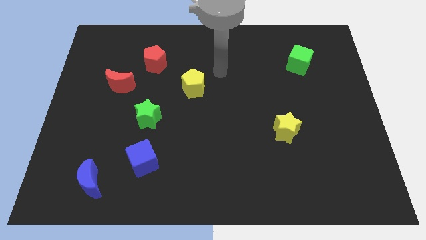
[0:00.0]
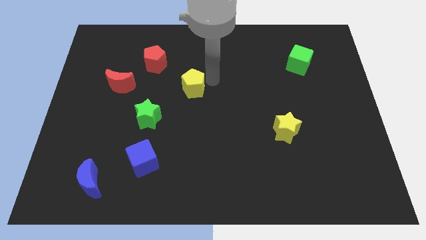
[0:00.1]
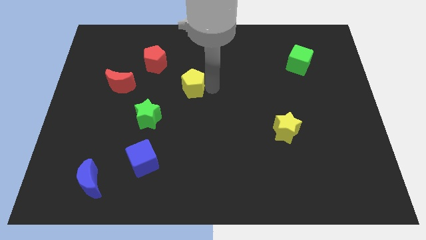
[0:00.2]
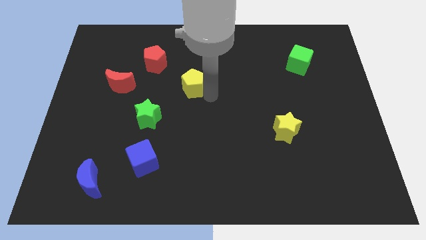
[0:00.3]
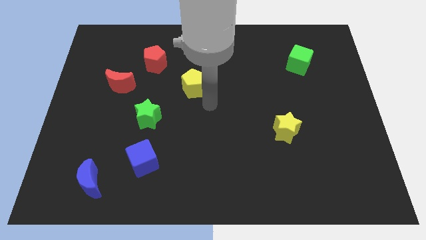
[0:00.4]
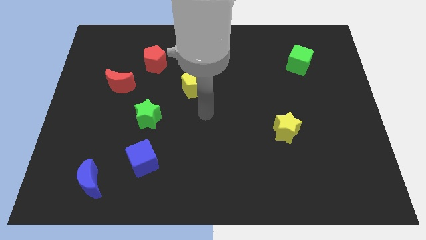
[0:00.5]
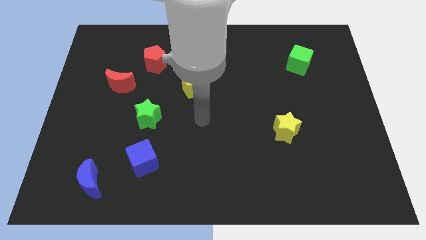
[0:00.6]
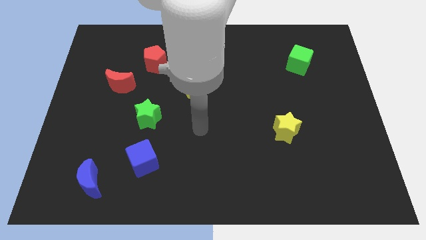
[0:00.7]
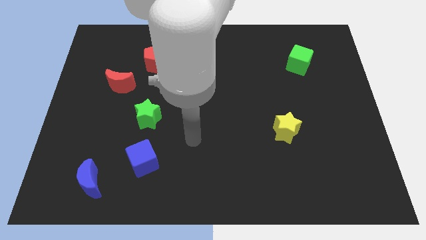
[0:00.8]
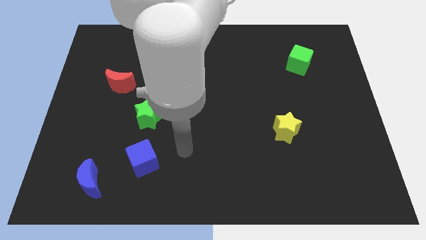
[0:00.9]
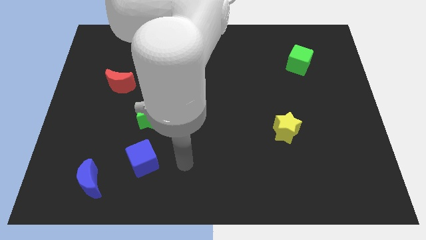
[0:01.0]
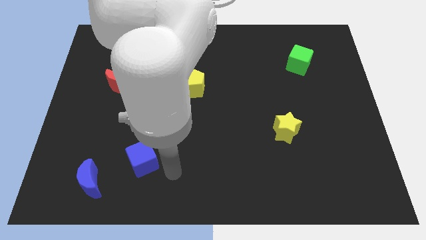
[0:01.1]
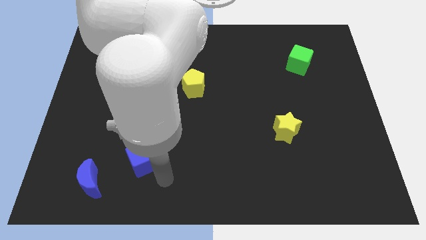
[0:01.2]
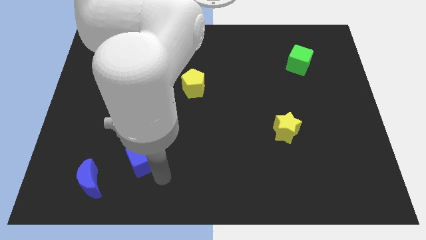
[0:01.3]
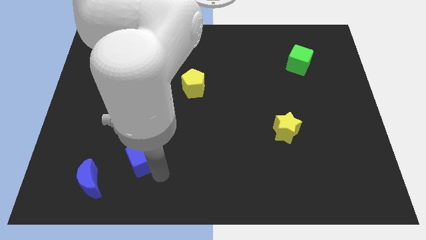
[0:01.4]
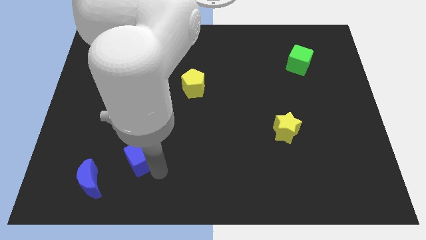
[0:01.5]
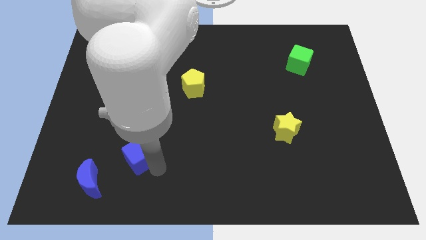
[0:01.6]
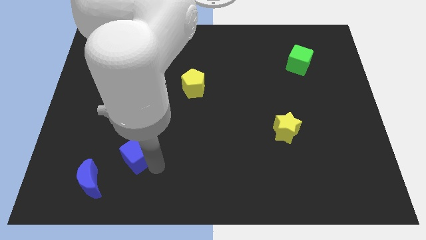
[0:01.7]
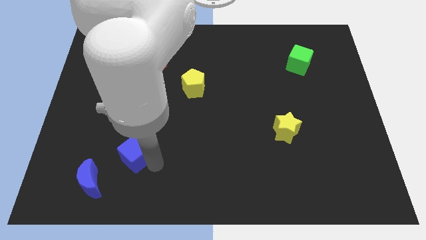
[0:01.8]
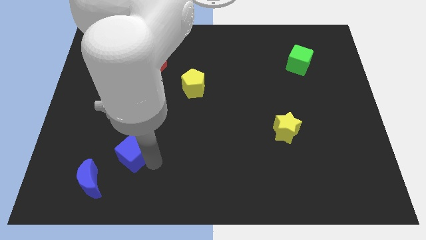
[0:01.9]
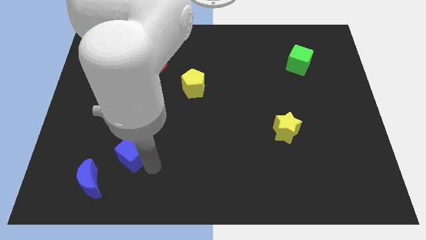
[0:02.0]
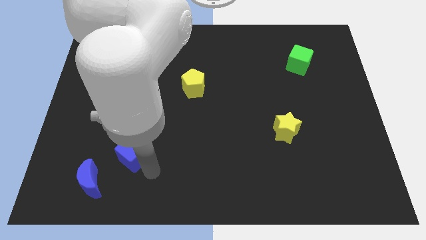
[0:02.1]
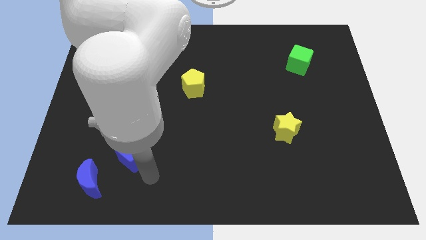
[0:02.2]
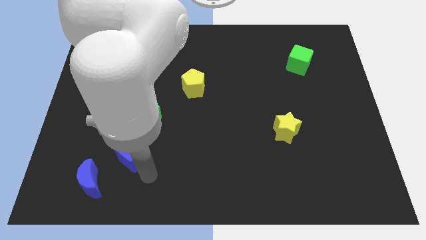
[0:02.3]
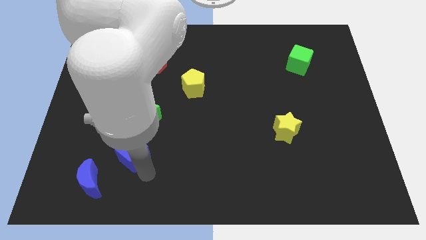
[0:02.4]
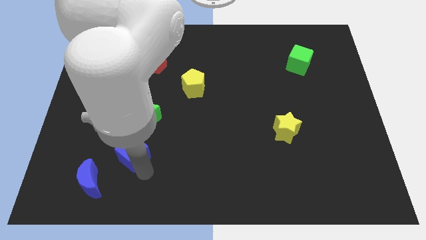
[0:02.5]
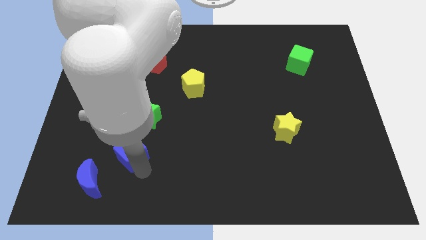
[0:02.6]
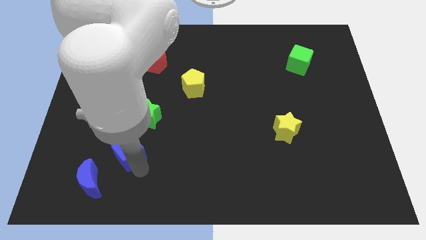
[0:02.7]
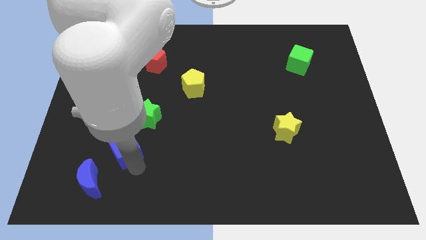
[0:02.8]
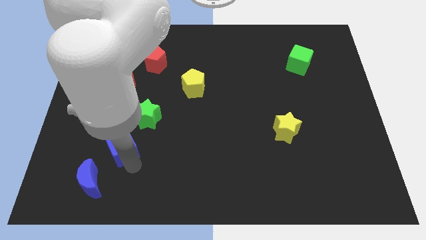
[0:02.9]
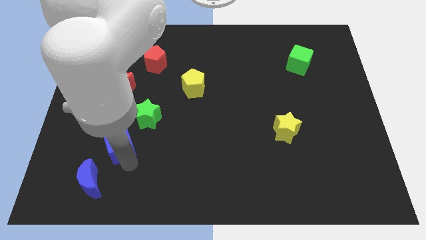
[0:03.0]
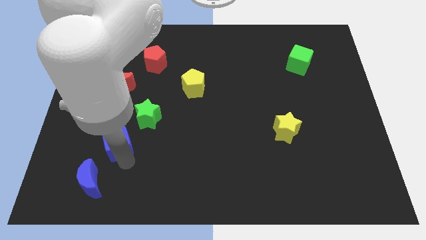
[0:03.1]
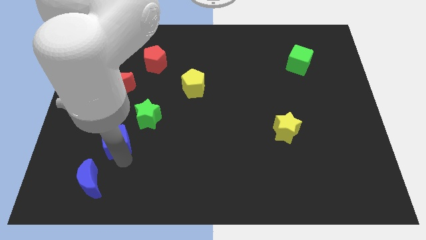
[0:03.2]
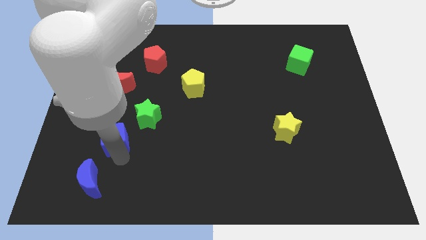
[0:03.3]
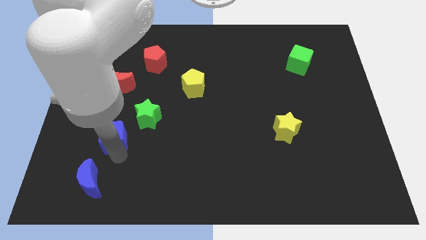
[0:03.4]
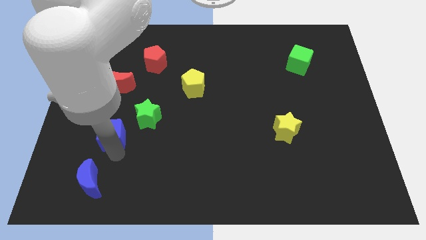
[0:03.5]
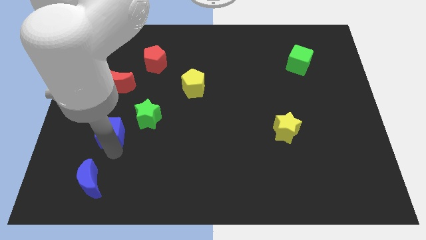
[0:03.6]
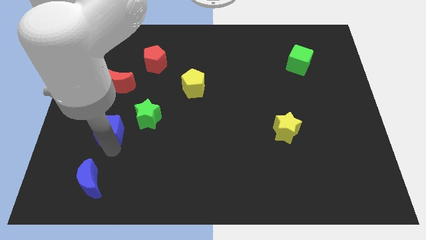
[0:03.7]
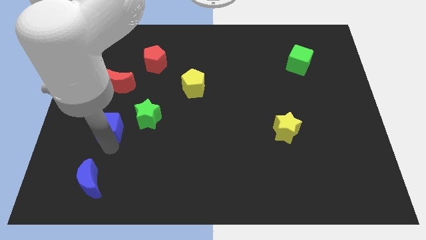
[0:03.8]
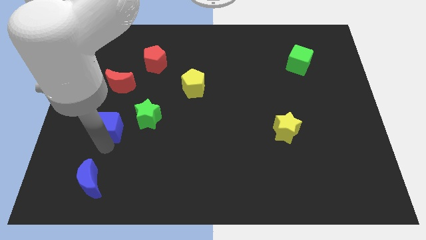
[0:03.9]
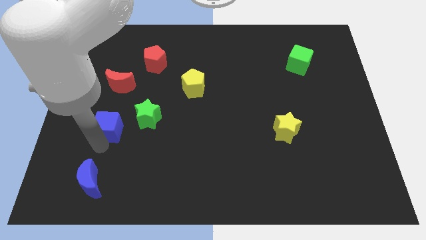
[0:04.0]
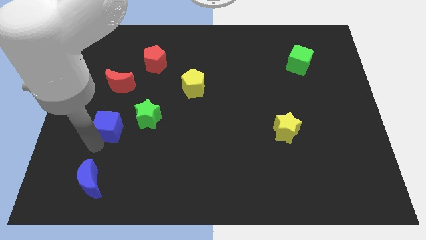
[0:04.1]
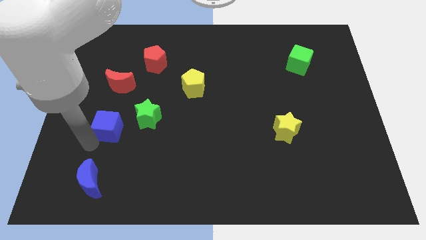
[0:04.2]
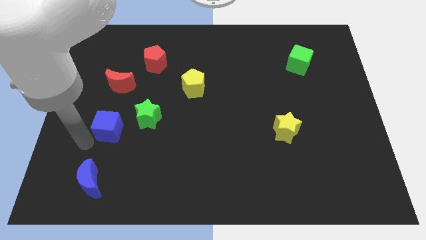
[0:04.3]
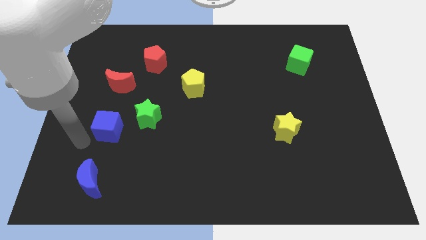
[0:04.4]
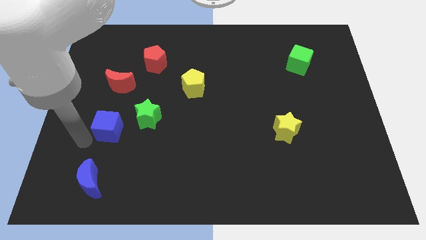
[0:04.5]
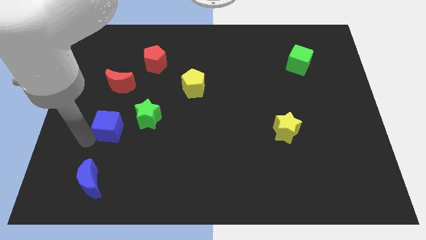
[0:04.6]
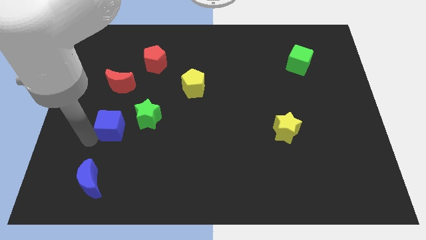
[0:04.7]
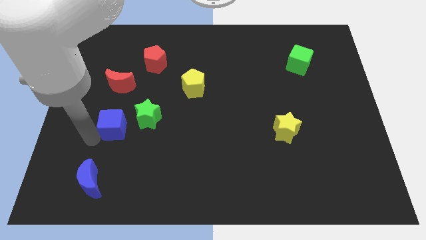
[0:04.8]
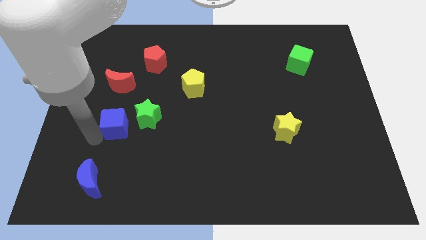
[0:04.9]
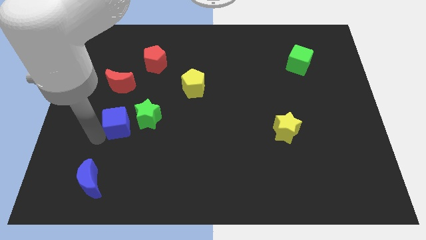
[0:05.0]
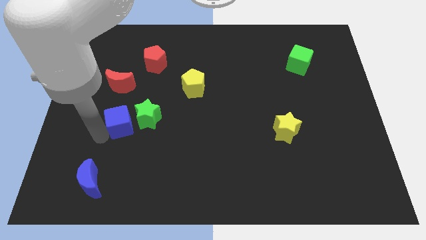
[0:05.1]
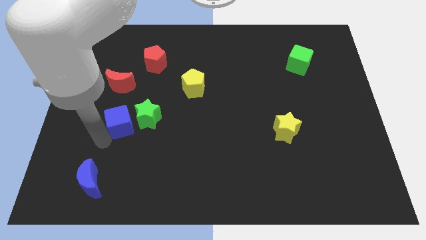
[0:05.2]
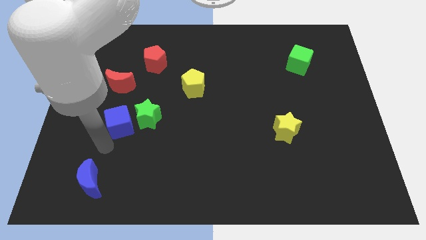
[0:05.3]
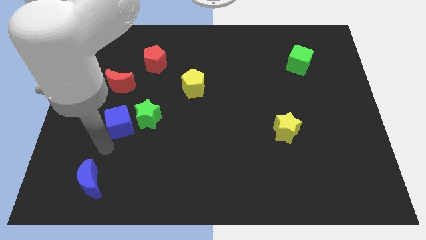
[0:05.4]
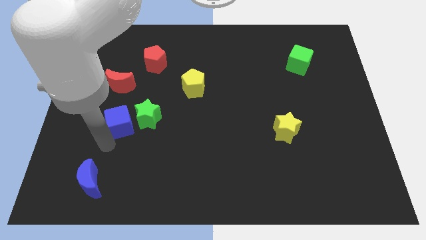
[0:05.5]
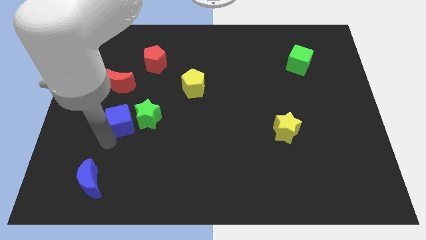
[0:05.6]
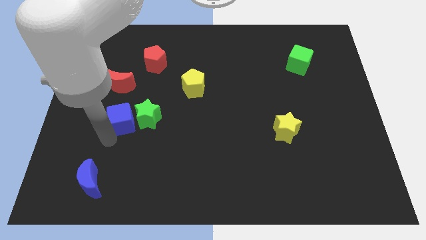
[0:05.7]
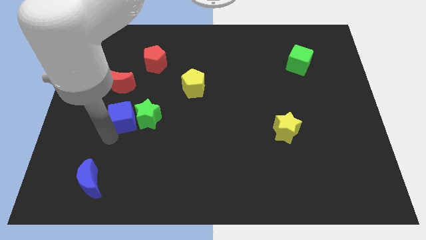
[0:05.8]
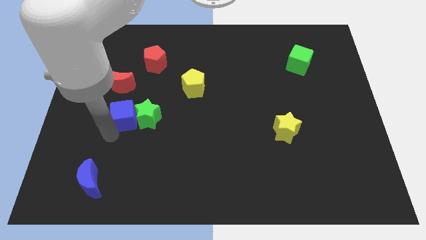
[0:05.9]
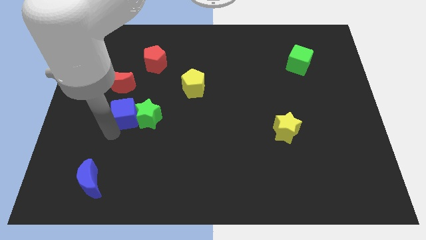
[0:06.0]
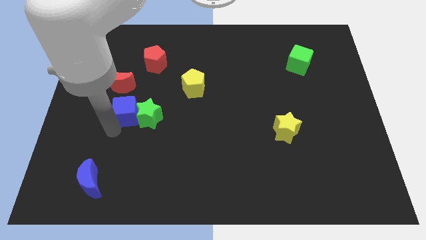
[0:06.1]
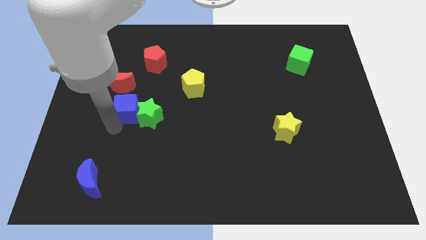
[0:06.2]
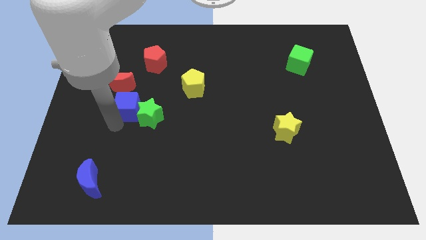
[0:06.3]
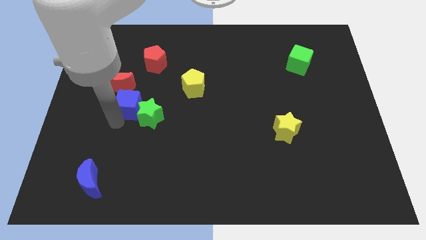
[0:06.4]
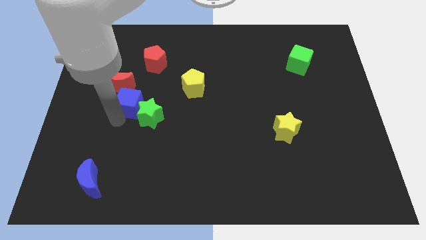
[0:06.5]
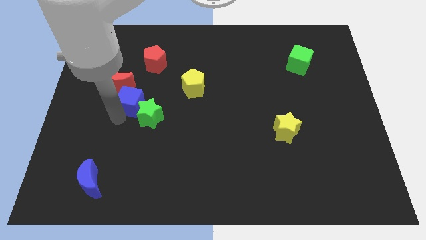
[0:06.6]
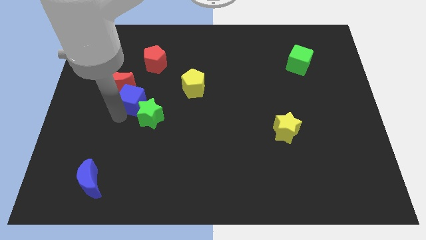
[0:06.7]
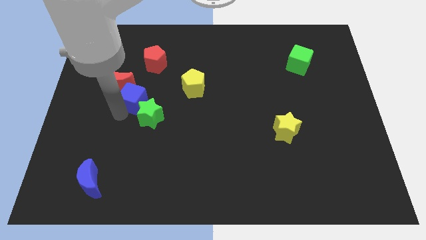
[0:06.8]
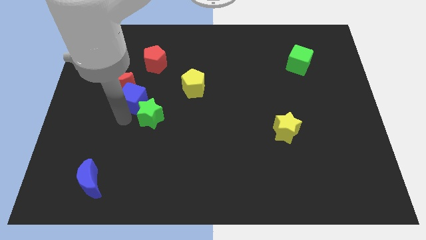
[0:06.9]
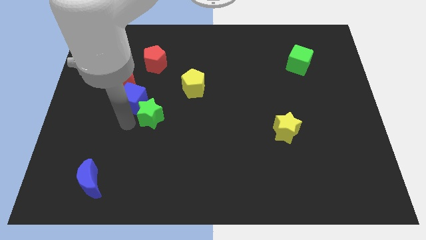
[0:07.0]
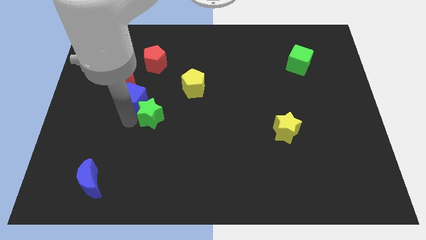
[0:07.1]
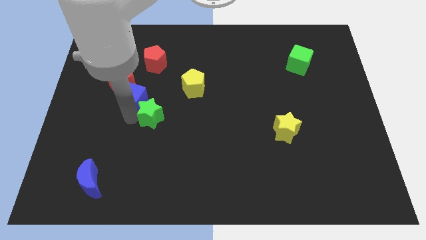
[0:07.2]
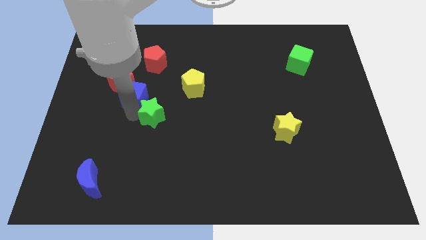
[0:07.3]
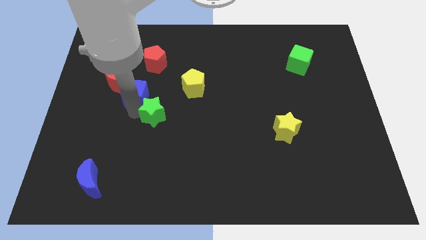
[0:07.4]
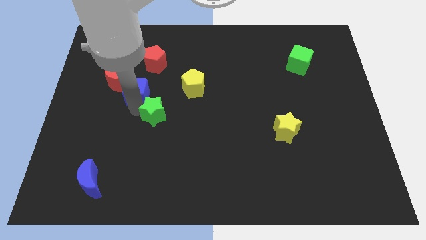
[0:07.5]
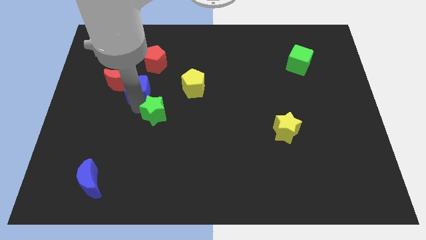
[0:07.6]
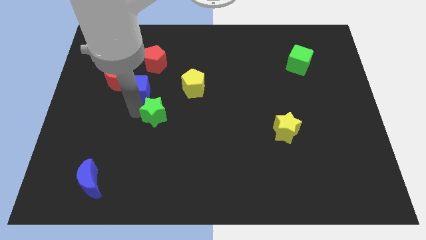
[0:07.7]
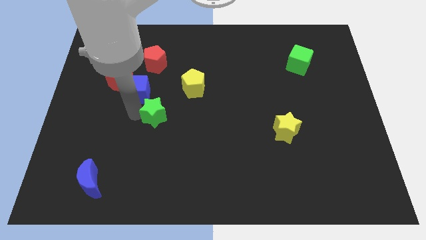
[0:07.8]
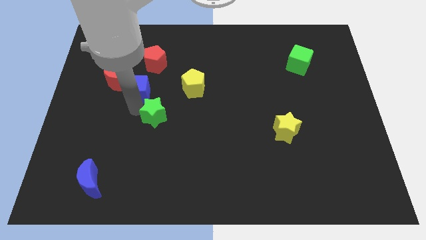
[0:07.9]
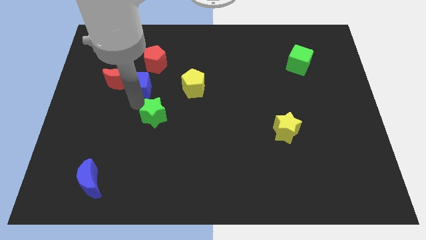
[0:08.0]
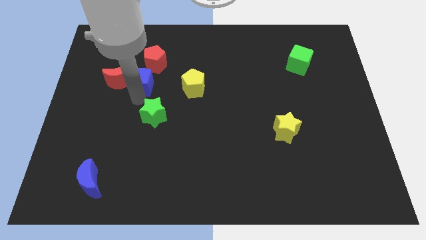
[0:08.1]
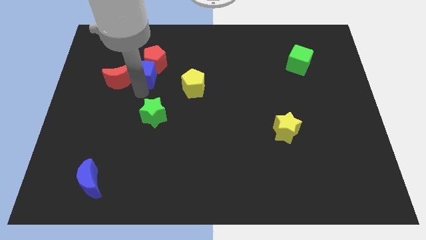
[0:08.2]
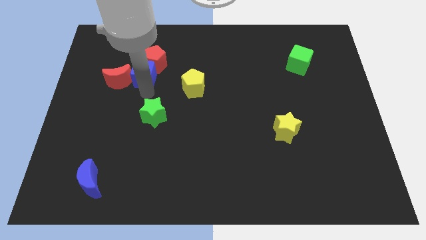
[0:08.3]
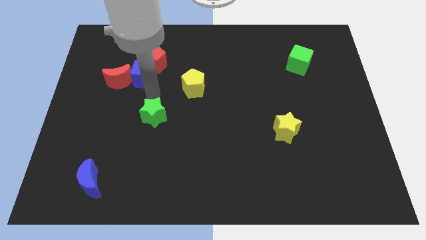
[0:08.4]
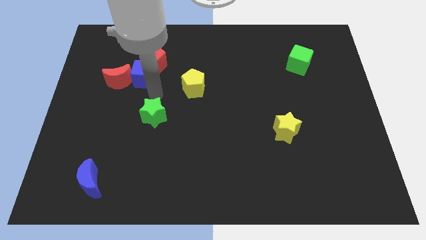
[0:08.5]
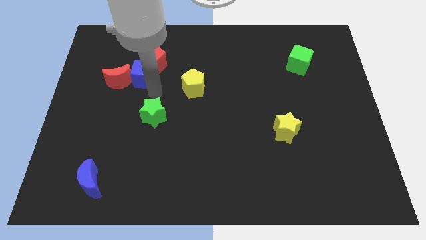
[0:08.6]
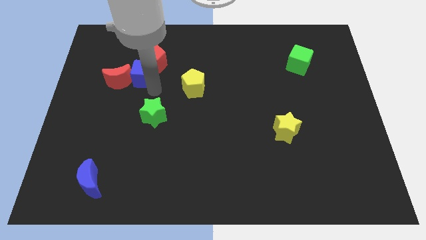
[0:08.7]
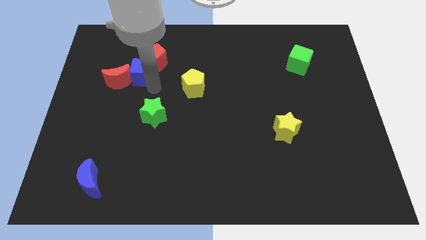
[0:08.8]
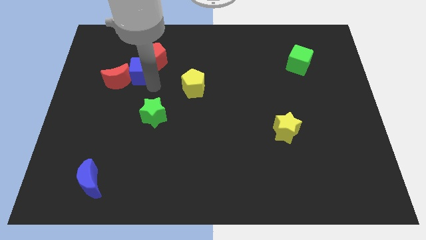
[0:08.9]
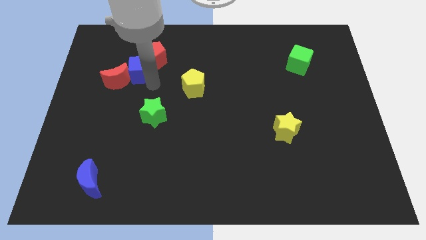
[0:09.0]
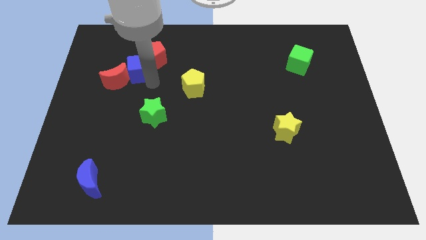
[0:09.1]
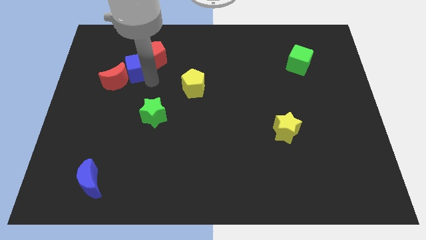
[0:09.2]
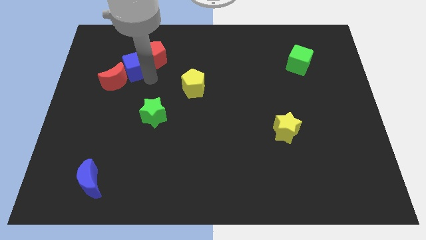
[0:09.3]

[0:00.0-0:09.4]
move the blue cube to the top of the red moon
